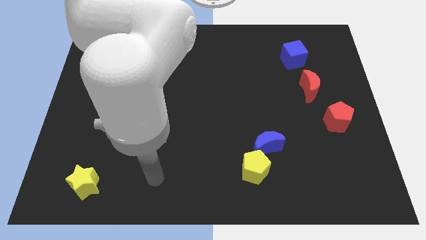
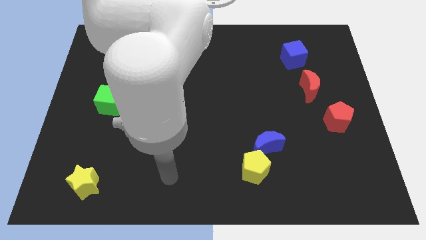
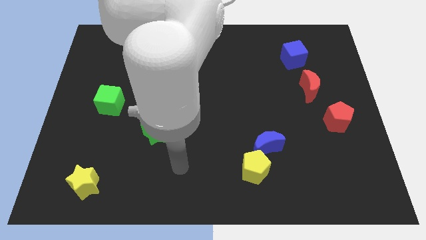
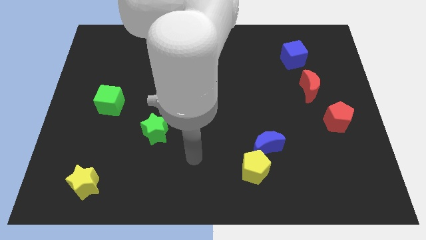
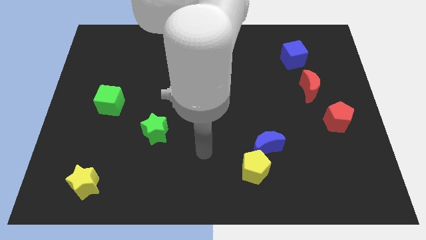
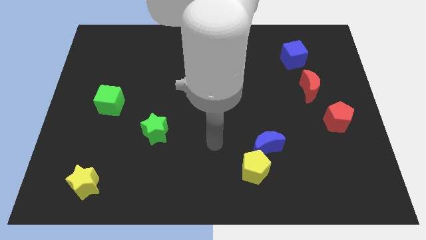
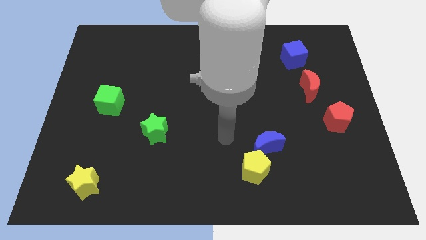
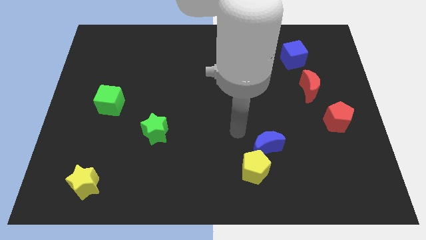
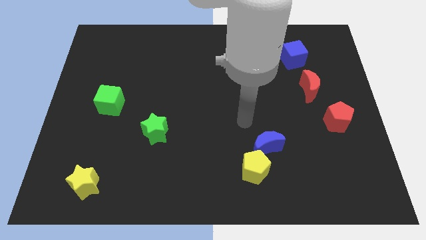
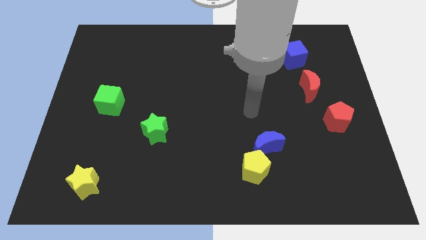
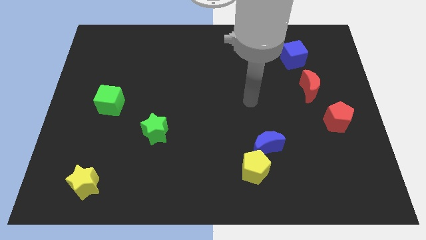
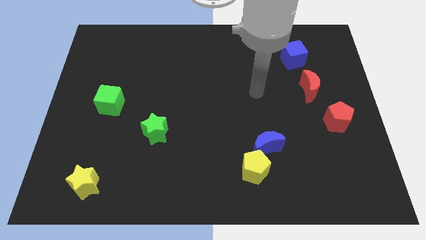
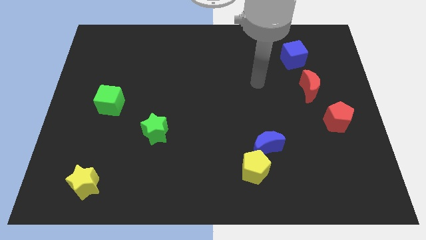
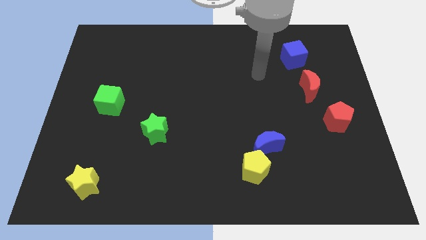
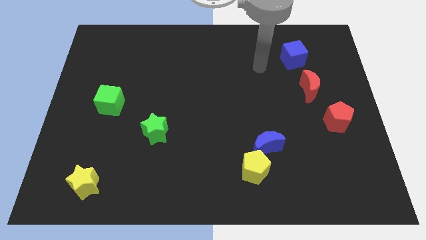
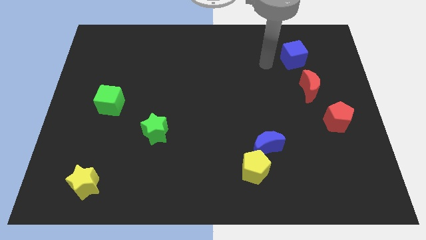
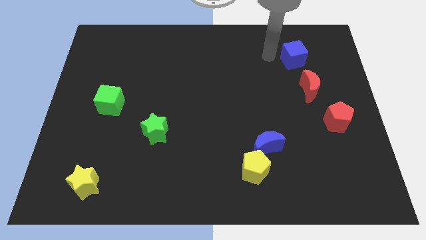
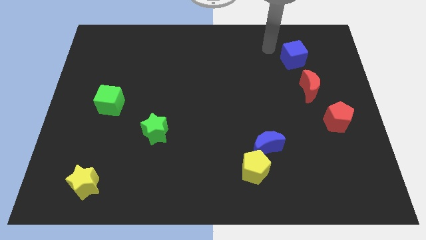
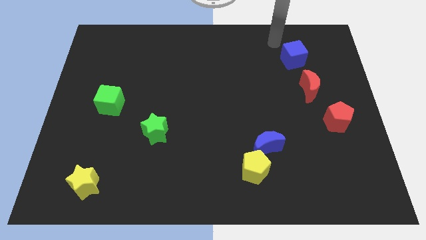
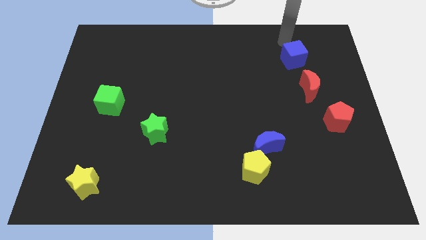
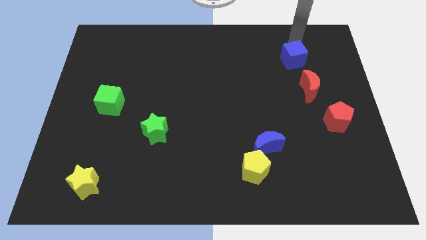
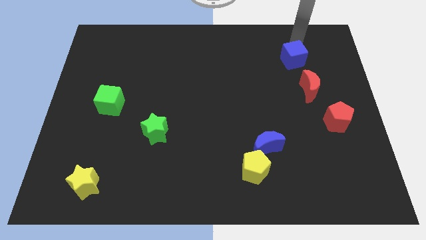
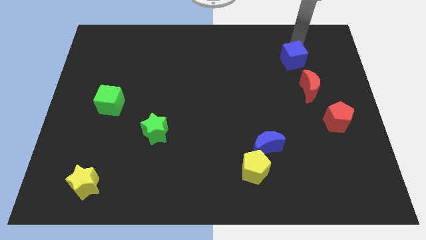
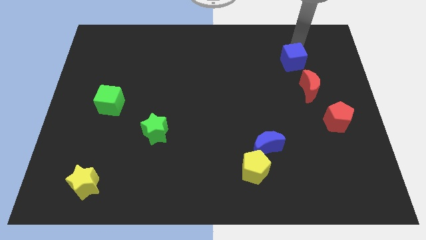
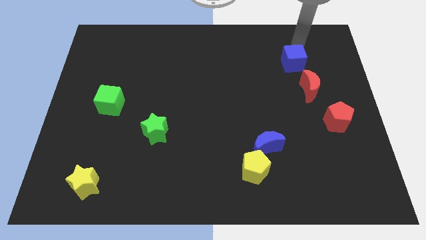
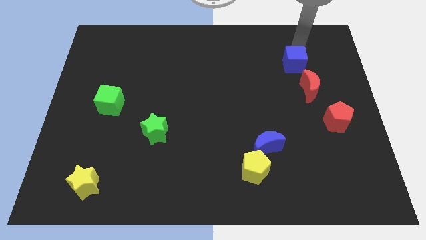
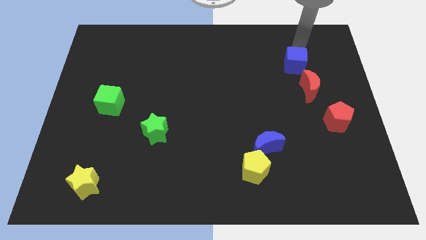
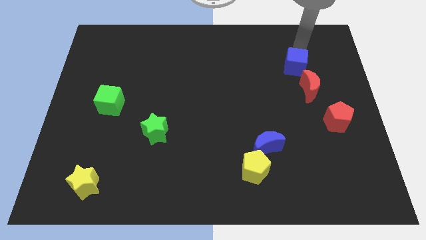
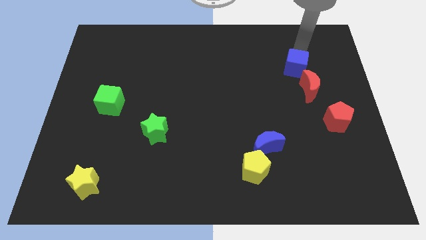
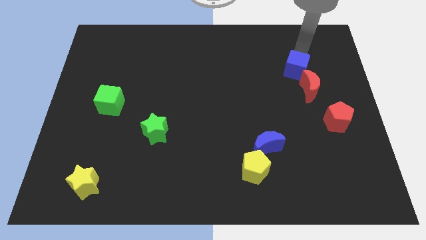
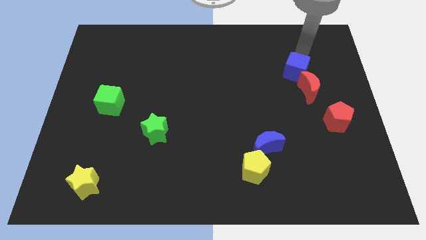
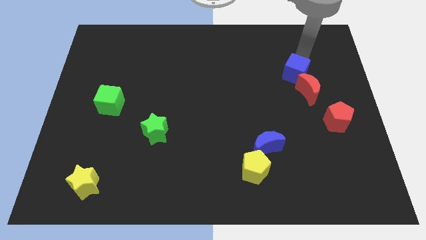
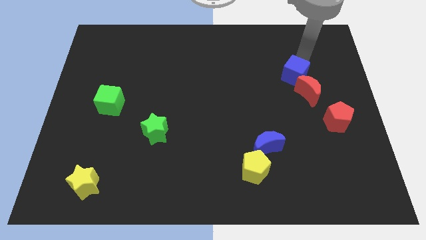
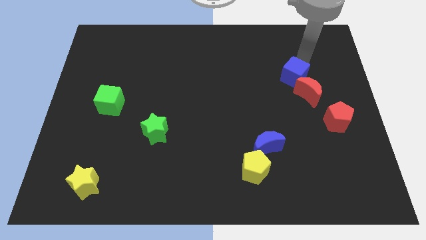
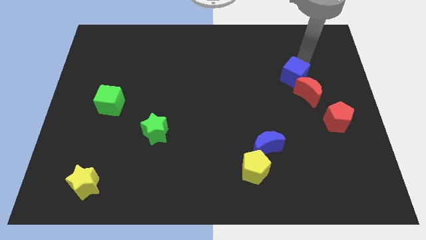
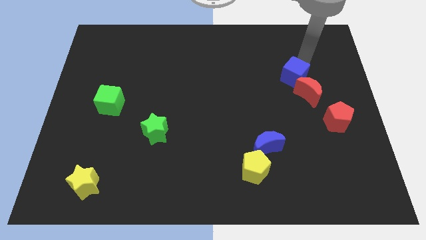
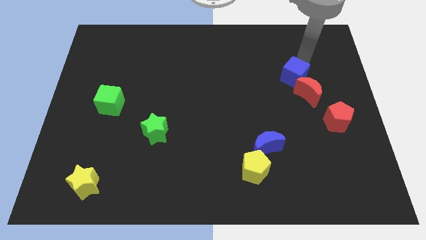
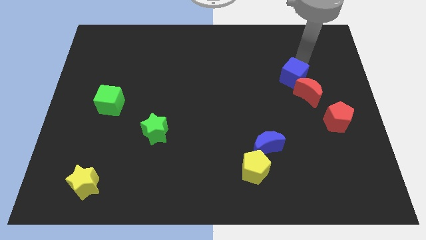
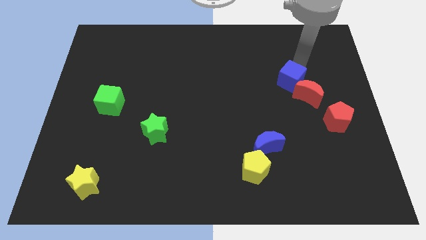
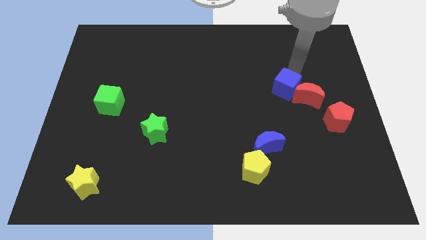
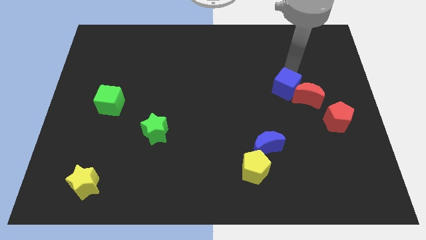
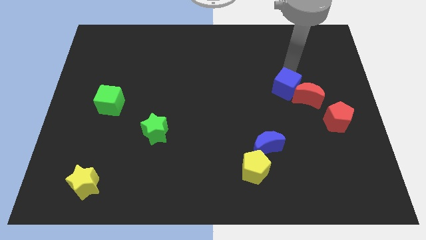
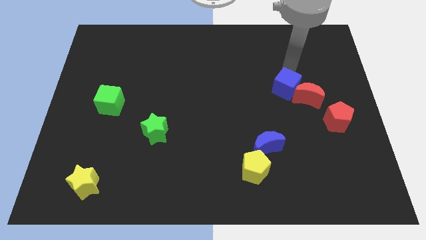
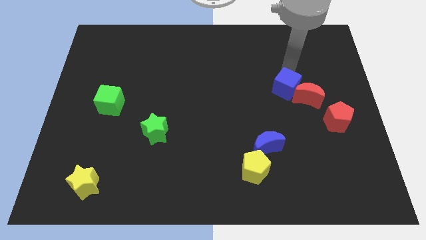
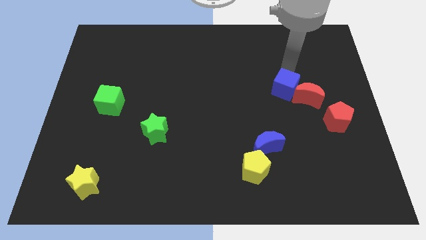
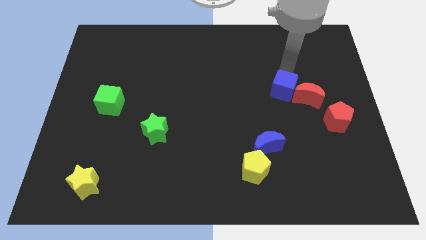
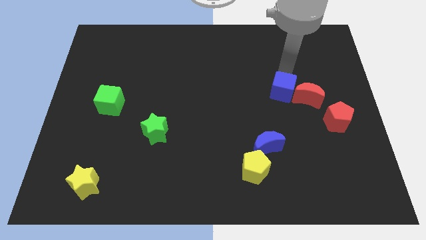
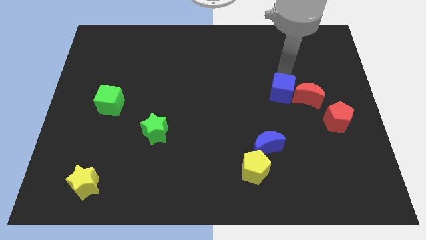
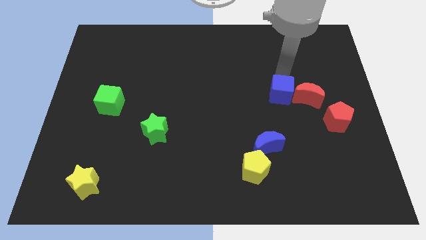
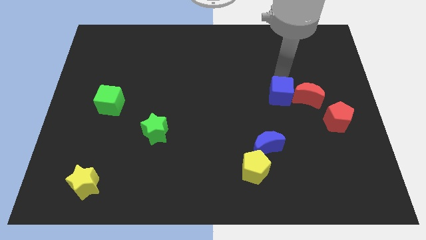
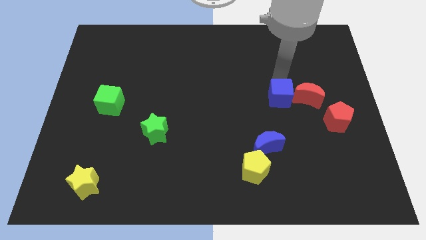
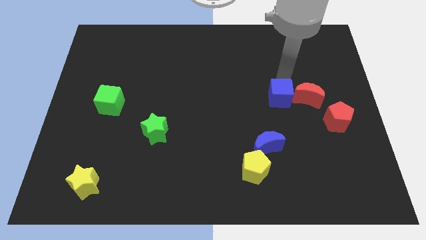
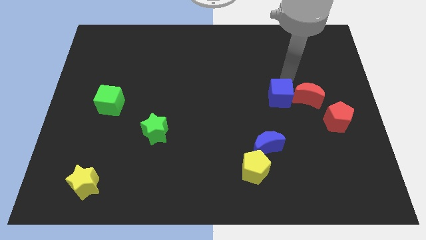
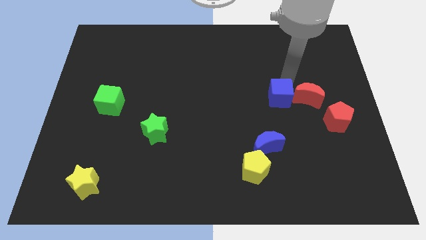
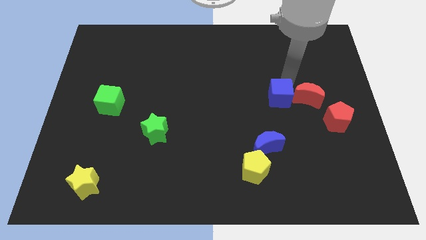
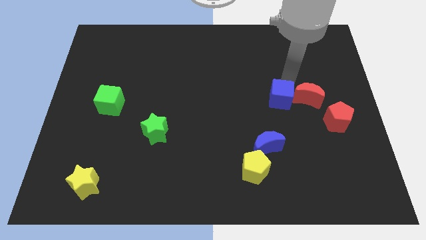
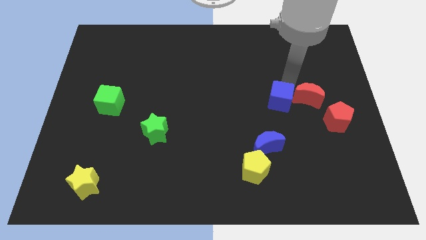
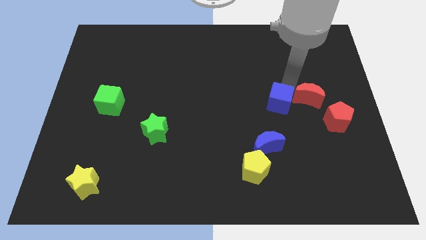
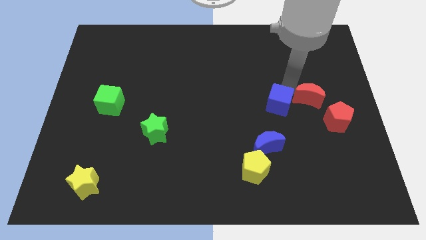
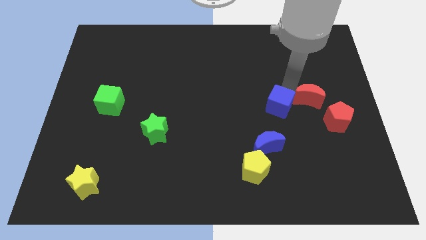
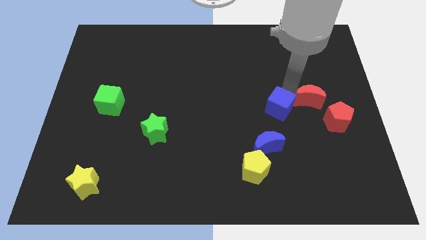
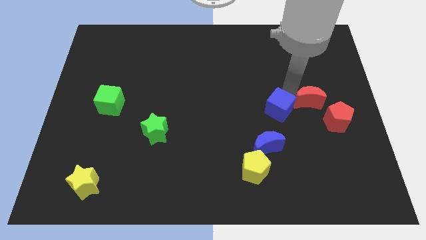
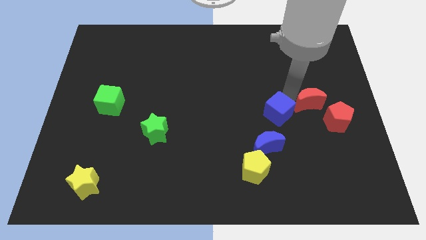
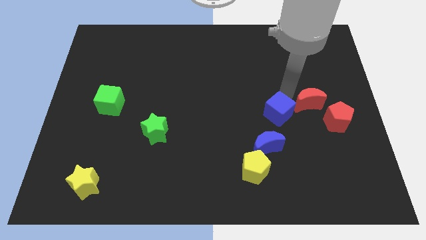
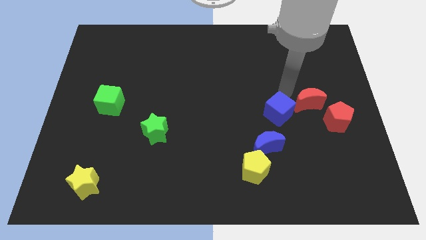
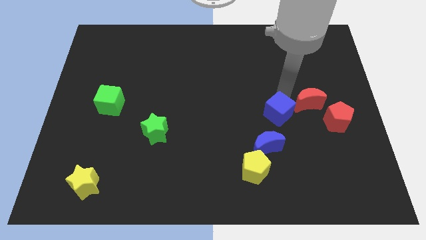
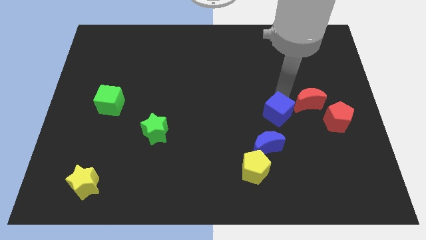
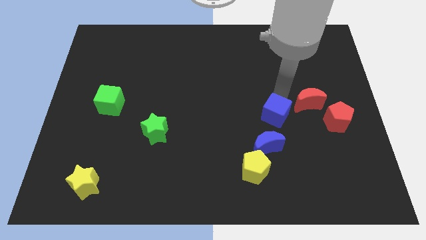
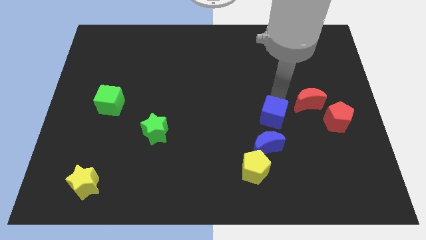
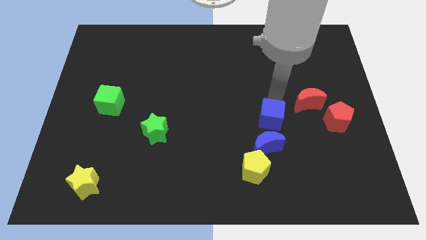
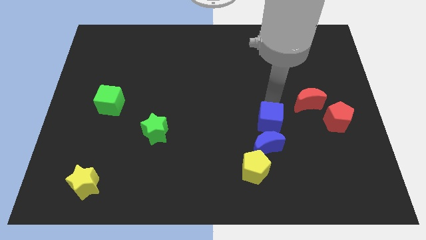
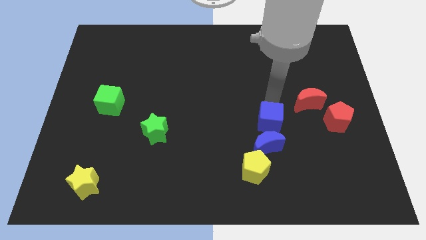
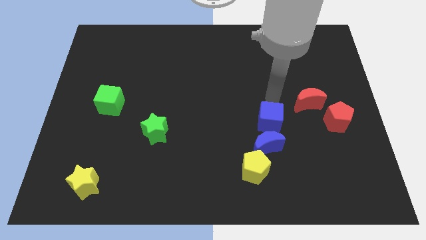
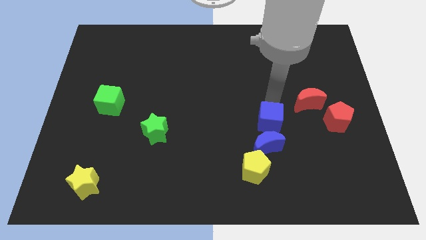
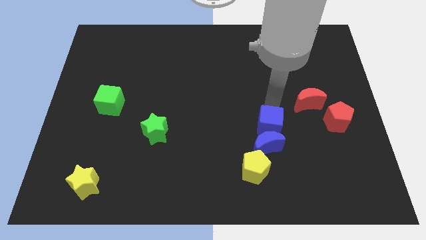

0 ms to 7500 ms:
push the blue cube to the blue moon
